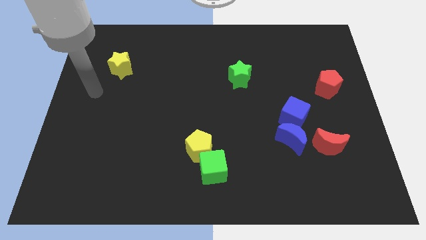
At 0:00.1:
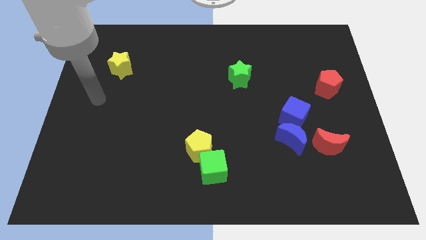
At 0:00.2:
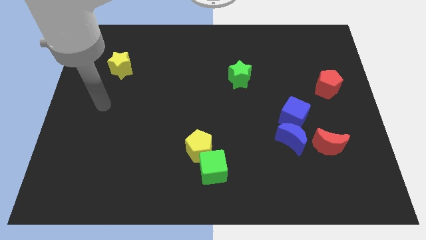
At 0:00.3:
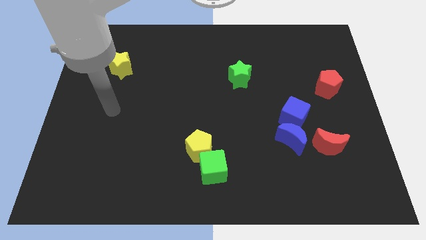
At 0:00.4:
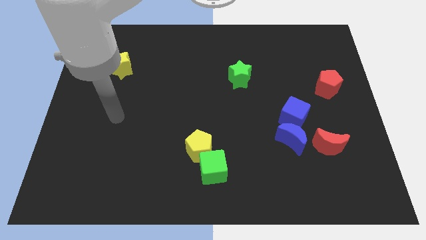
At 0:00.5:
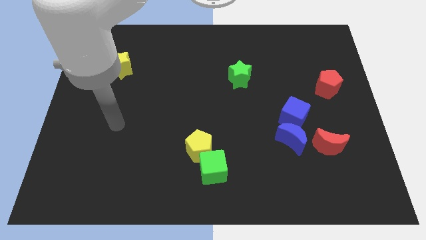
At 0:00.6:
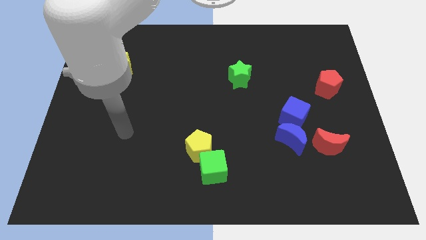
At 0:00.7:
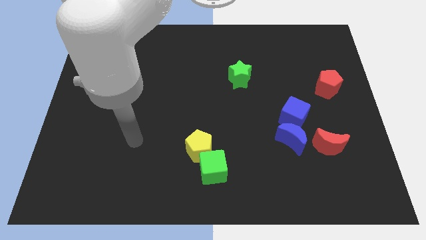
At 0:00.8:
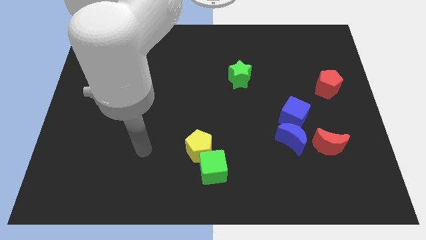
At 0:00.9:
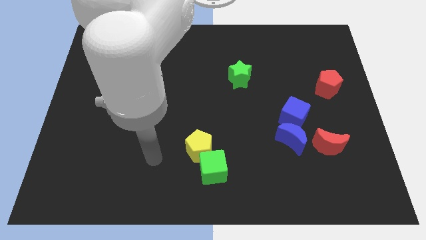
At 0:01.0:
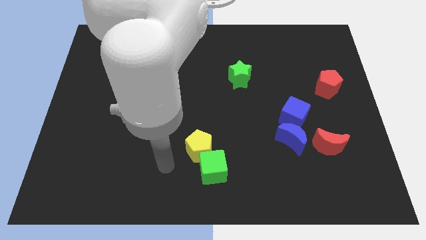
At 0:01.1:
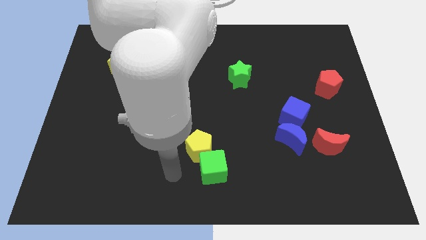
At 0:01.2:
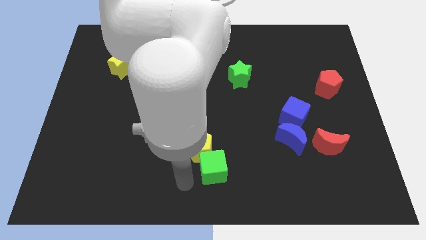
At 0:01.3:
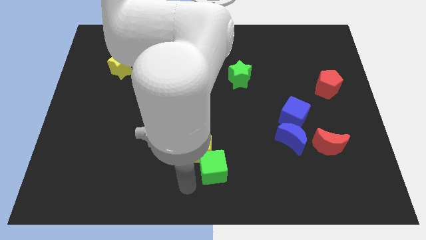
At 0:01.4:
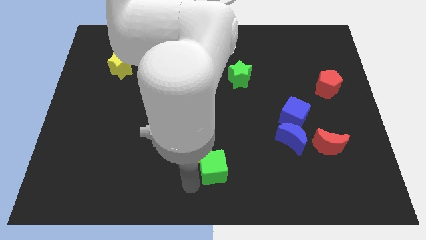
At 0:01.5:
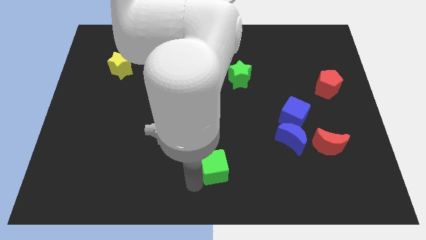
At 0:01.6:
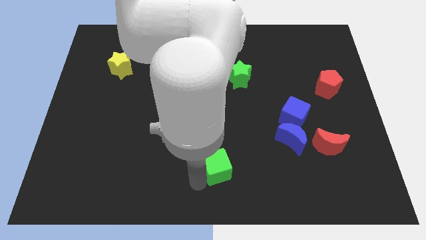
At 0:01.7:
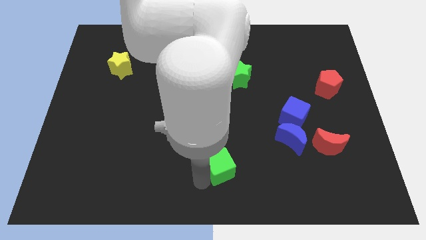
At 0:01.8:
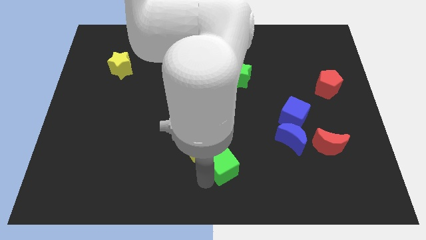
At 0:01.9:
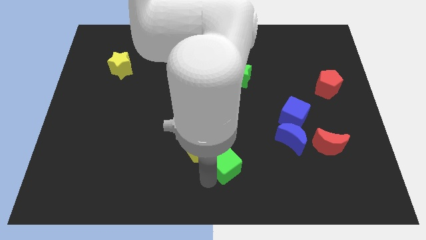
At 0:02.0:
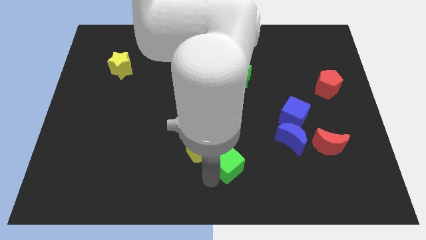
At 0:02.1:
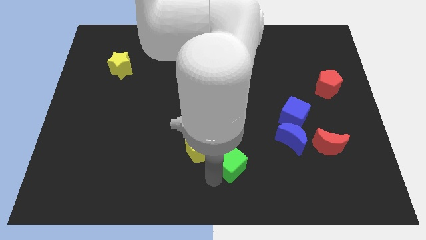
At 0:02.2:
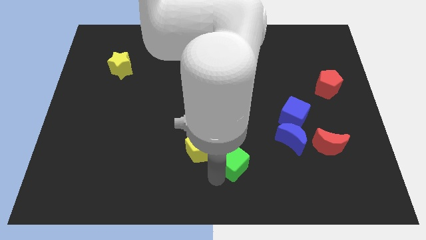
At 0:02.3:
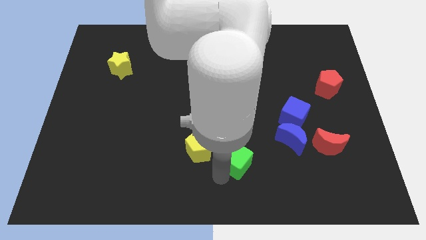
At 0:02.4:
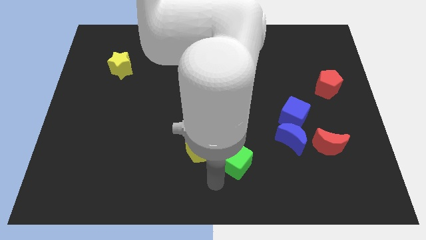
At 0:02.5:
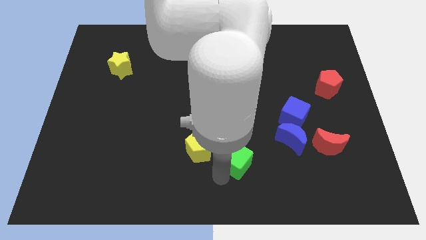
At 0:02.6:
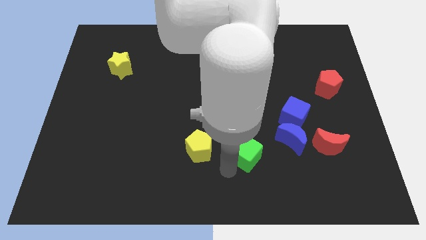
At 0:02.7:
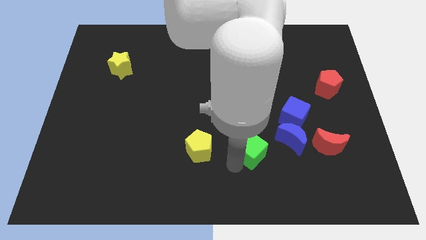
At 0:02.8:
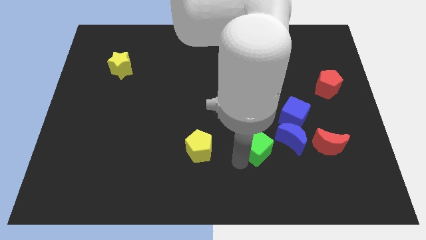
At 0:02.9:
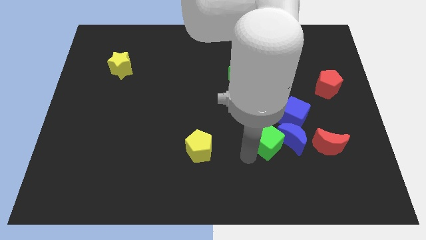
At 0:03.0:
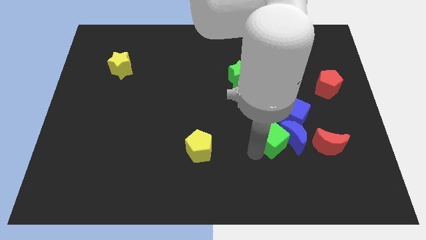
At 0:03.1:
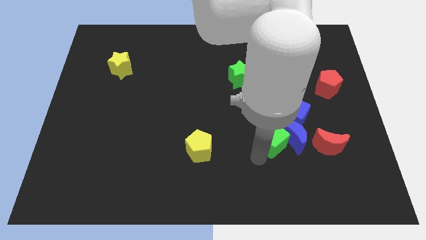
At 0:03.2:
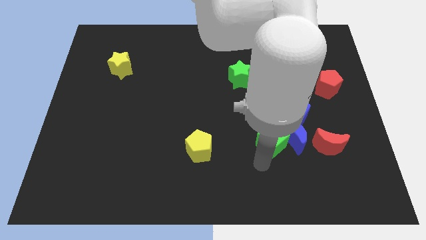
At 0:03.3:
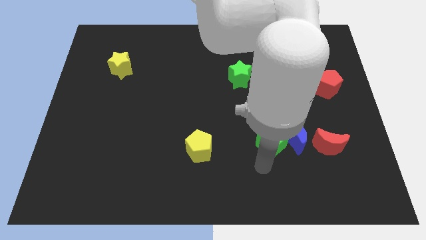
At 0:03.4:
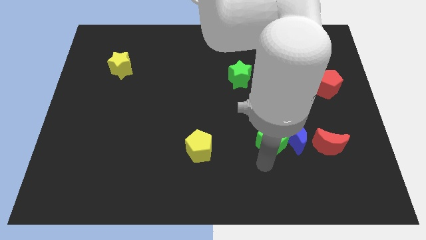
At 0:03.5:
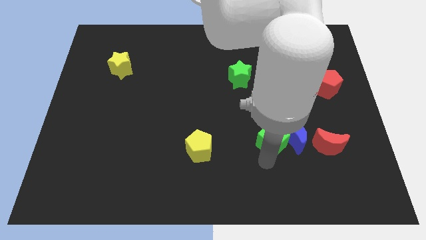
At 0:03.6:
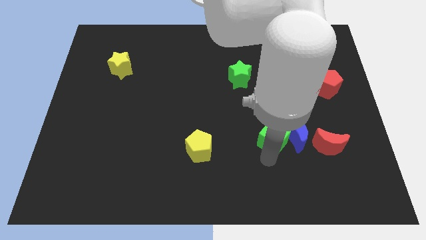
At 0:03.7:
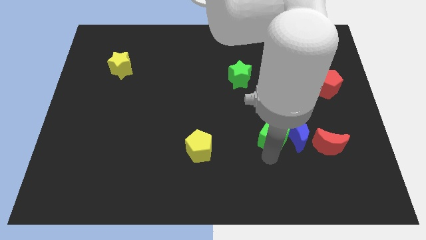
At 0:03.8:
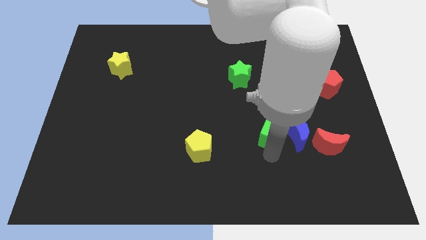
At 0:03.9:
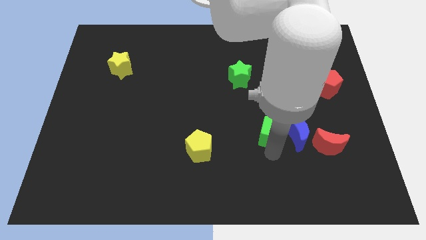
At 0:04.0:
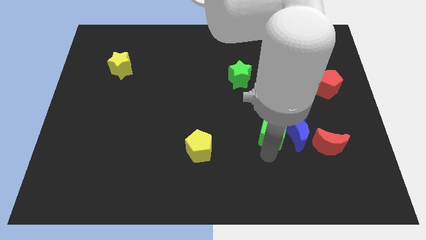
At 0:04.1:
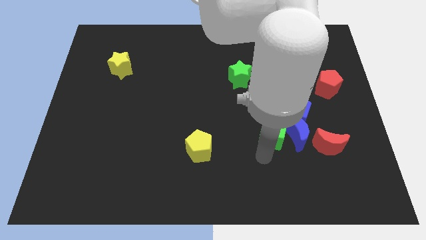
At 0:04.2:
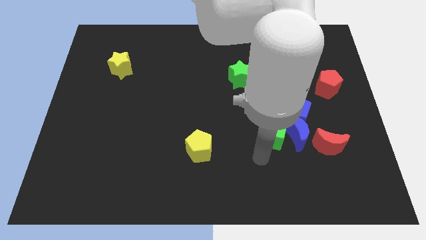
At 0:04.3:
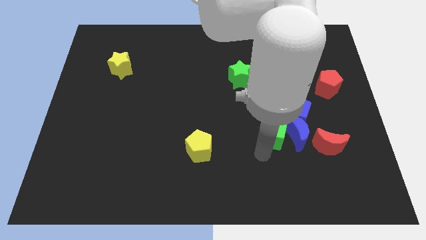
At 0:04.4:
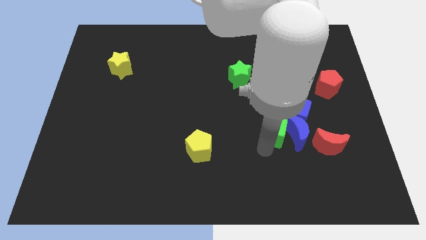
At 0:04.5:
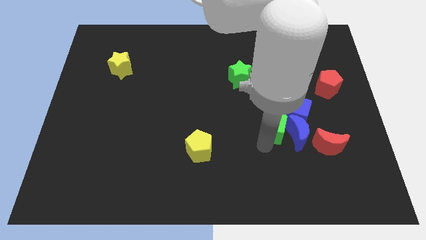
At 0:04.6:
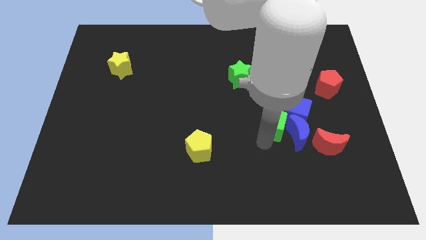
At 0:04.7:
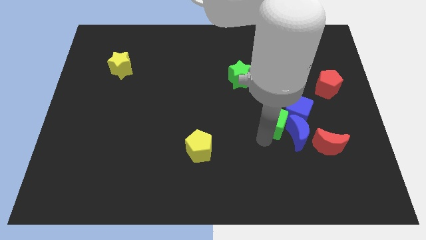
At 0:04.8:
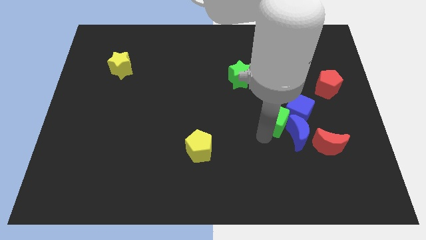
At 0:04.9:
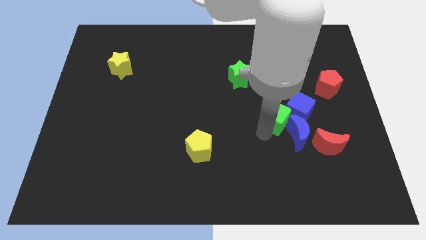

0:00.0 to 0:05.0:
move the green cube close to the blue cube

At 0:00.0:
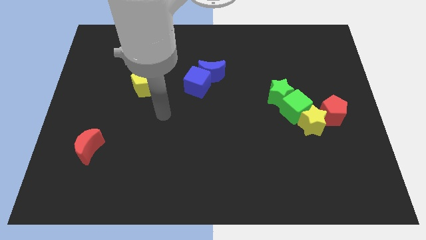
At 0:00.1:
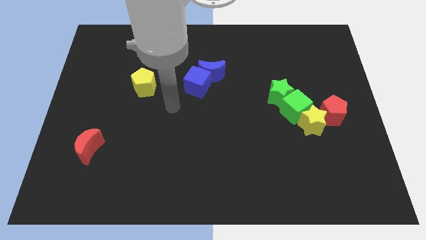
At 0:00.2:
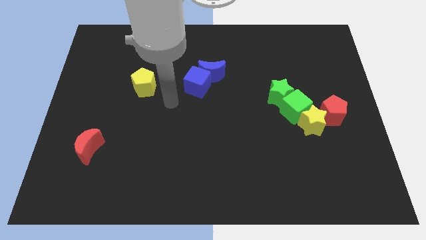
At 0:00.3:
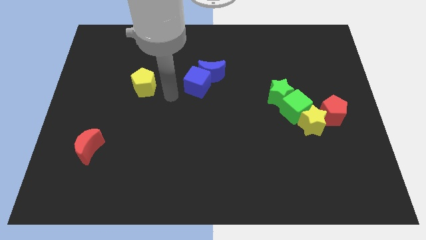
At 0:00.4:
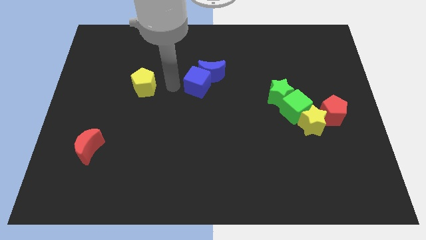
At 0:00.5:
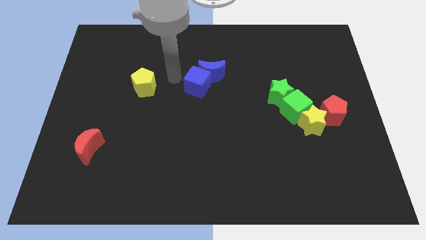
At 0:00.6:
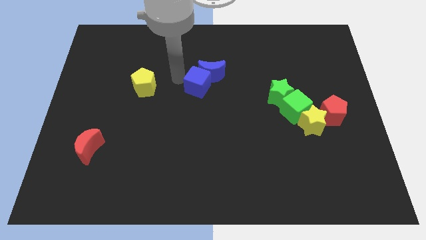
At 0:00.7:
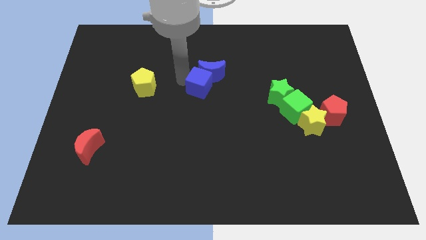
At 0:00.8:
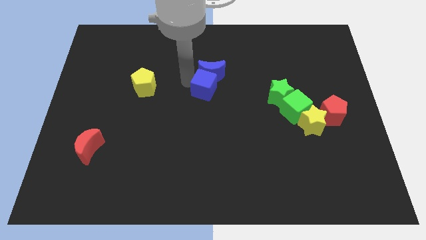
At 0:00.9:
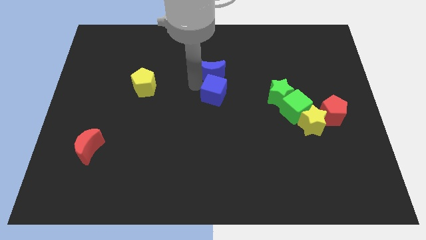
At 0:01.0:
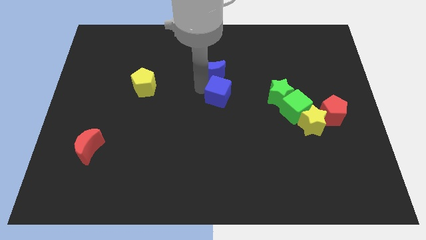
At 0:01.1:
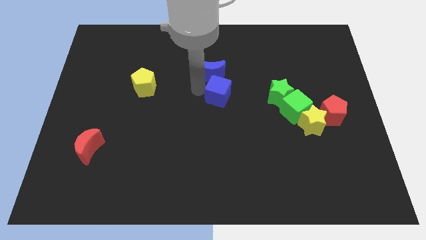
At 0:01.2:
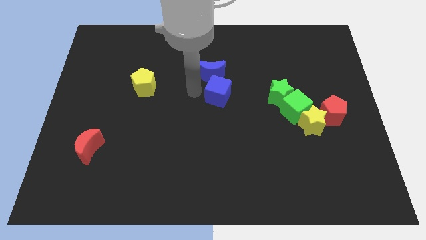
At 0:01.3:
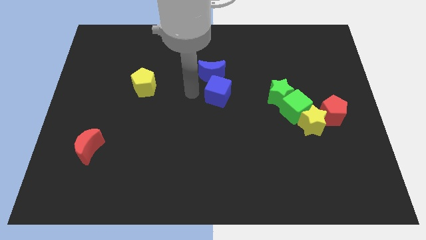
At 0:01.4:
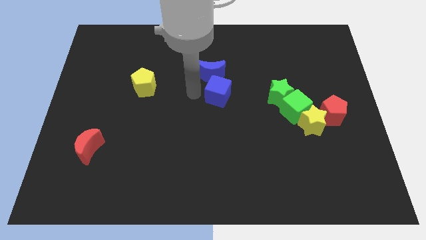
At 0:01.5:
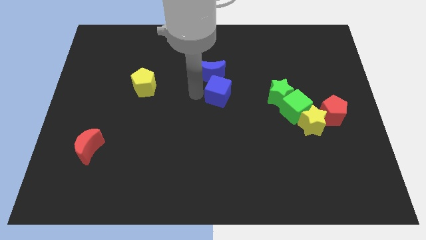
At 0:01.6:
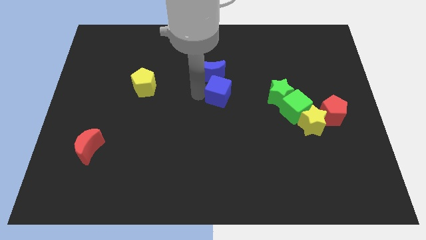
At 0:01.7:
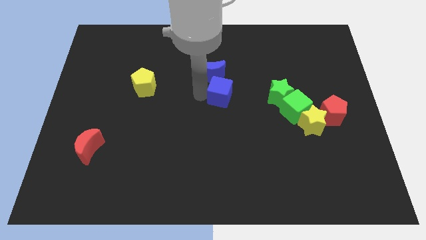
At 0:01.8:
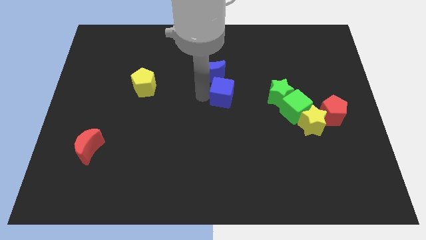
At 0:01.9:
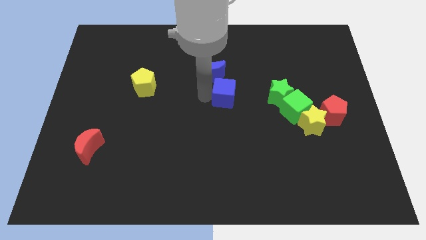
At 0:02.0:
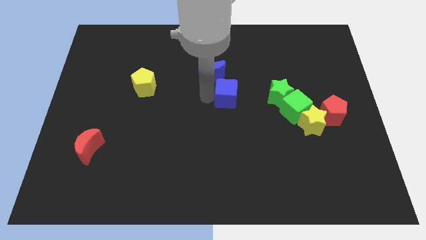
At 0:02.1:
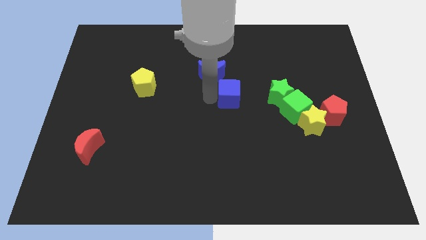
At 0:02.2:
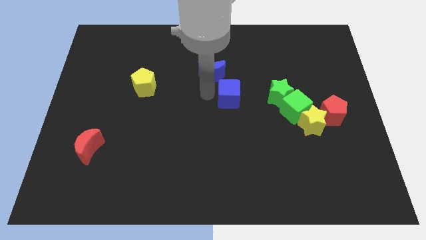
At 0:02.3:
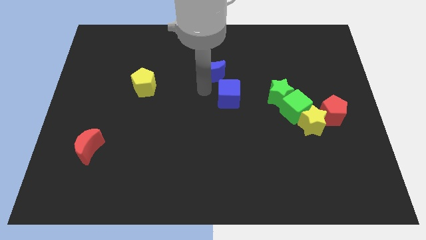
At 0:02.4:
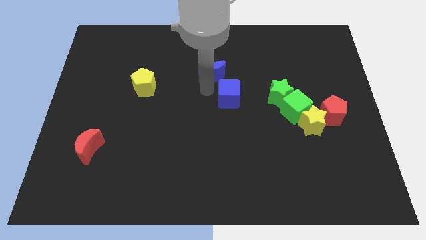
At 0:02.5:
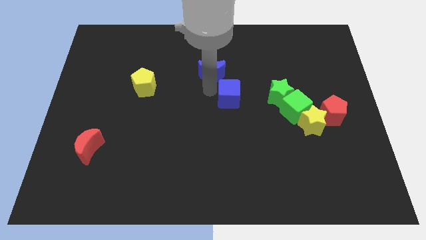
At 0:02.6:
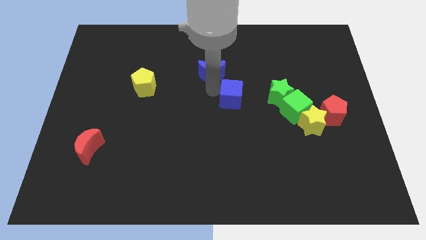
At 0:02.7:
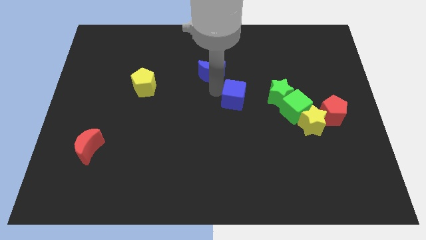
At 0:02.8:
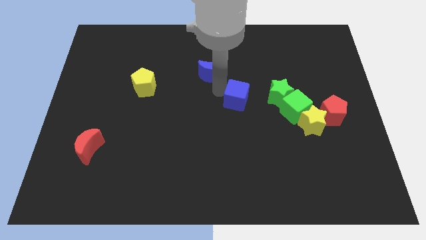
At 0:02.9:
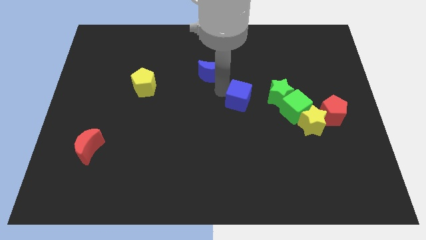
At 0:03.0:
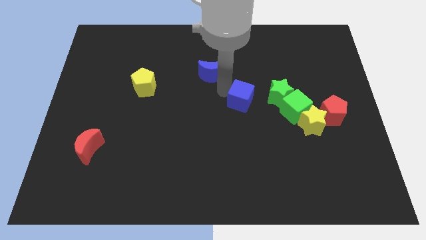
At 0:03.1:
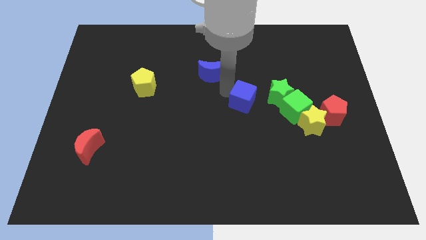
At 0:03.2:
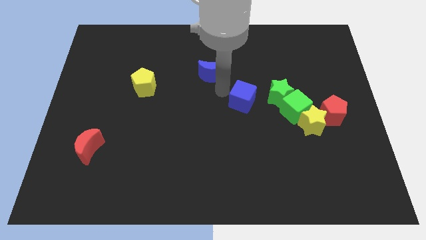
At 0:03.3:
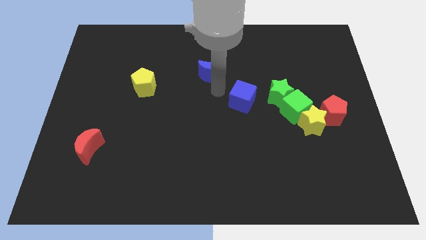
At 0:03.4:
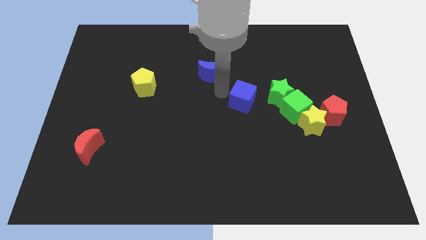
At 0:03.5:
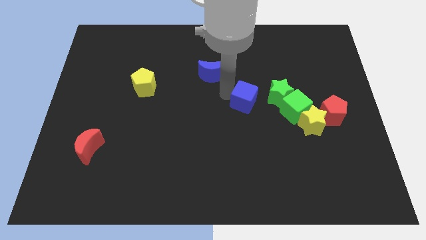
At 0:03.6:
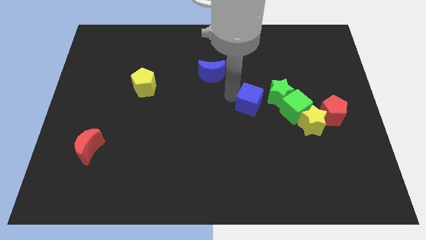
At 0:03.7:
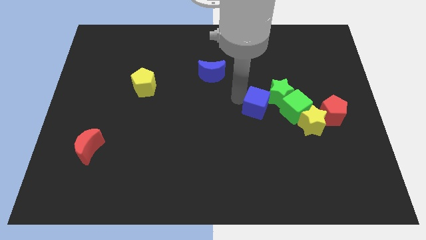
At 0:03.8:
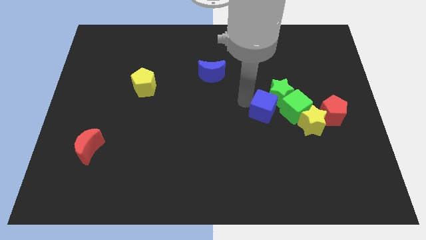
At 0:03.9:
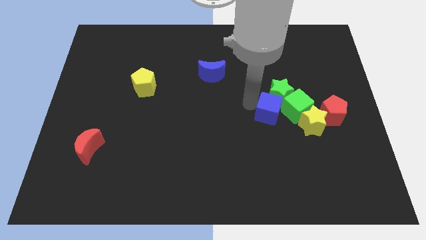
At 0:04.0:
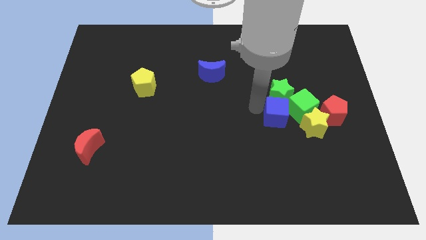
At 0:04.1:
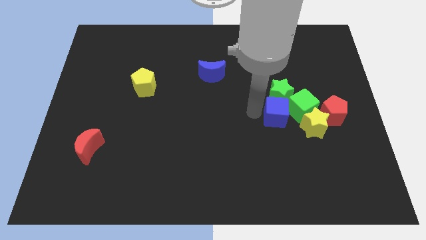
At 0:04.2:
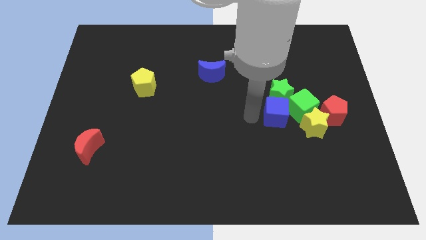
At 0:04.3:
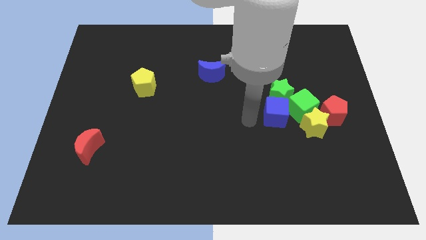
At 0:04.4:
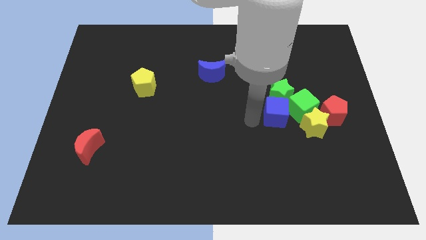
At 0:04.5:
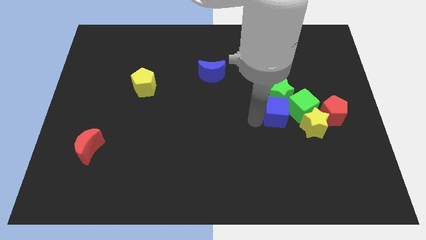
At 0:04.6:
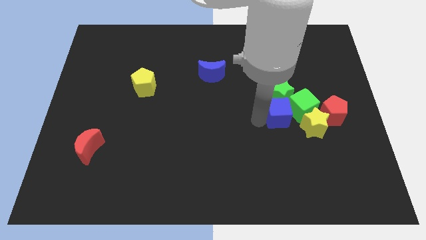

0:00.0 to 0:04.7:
move the blue cube close to the green cube
